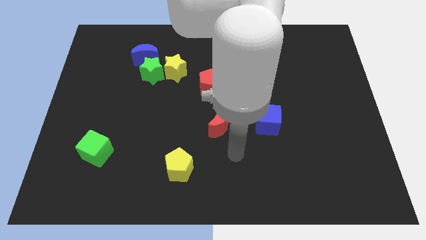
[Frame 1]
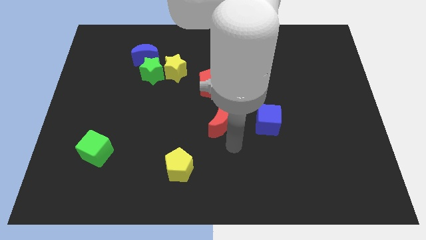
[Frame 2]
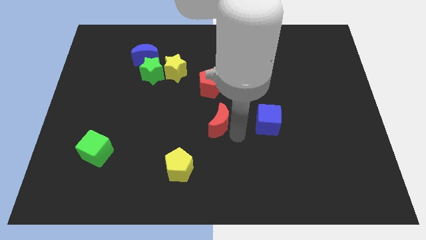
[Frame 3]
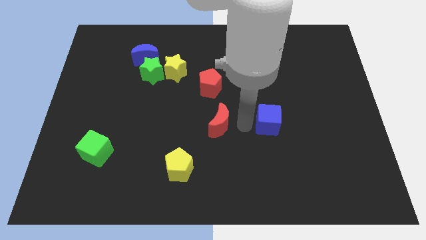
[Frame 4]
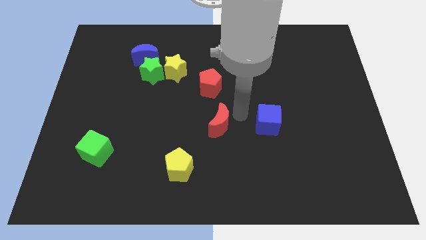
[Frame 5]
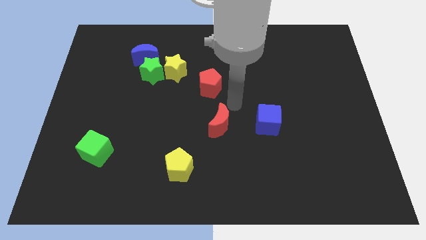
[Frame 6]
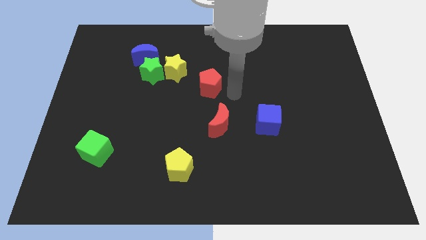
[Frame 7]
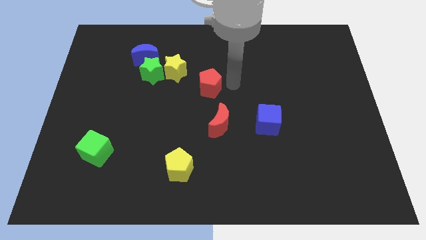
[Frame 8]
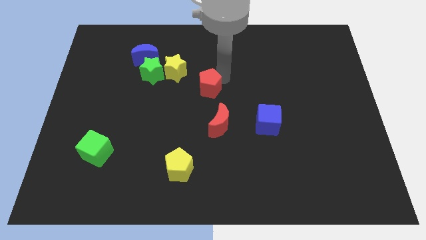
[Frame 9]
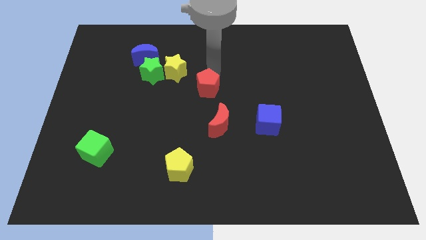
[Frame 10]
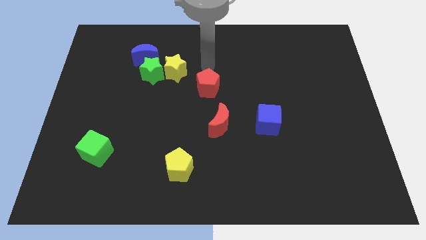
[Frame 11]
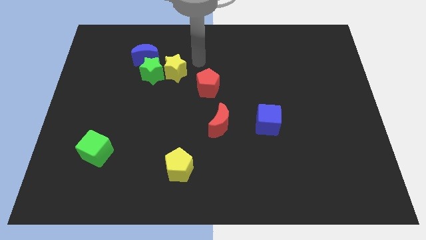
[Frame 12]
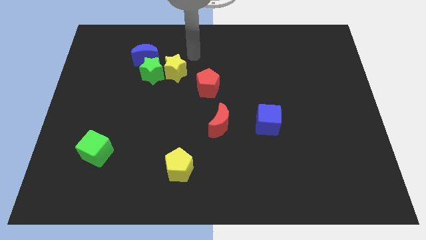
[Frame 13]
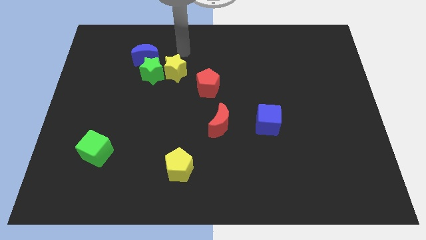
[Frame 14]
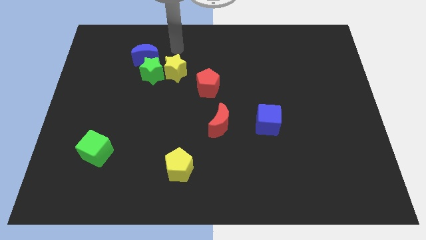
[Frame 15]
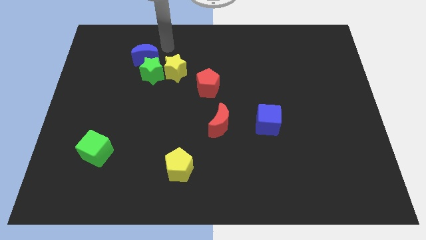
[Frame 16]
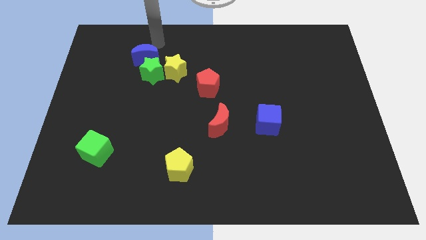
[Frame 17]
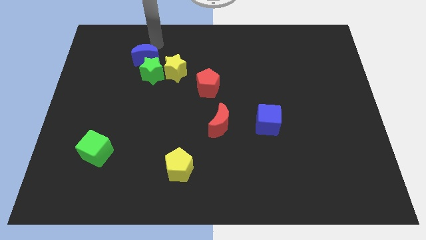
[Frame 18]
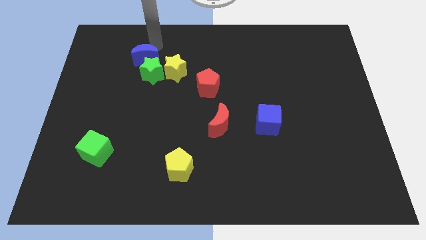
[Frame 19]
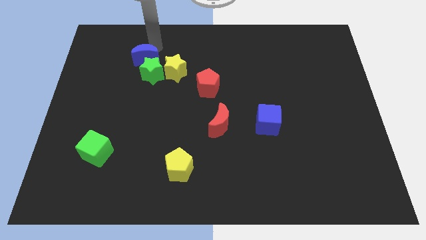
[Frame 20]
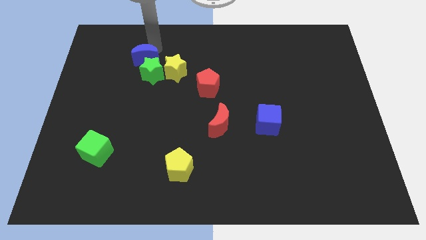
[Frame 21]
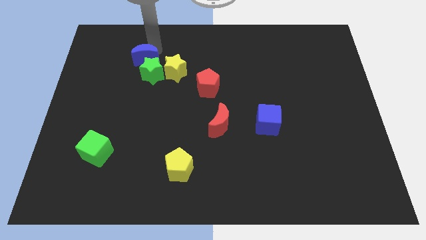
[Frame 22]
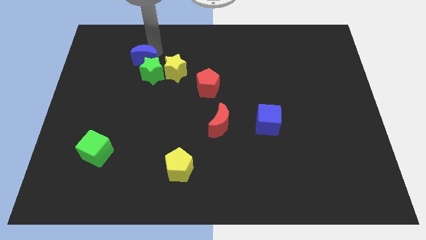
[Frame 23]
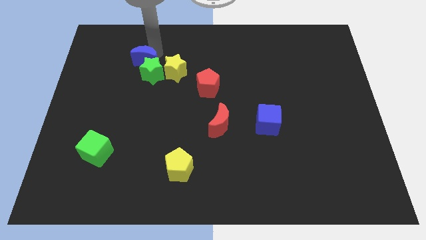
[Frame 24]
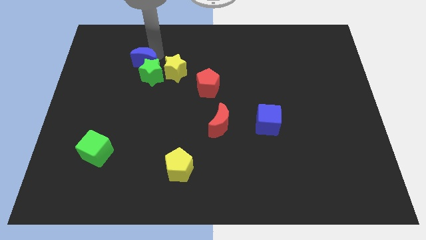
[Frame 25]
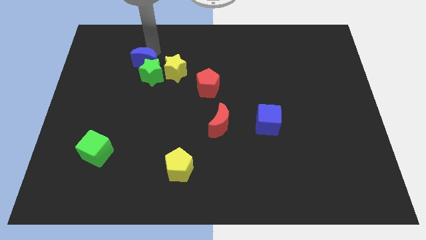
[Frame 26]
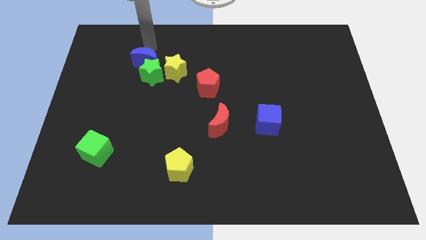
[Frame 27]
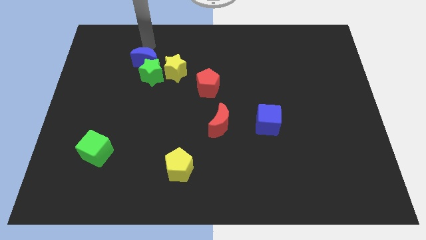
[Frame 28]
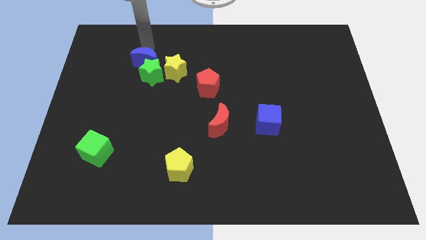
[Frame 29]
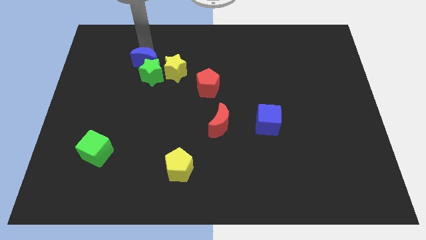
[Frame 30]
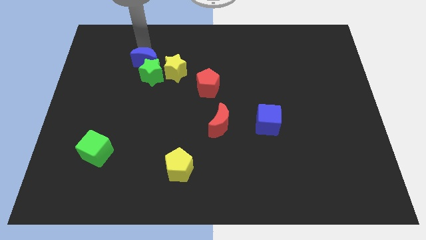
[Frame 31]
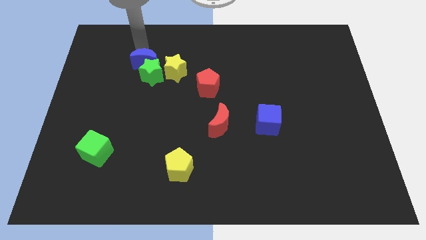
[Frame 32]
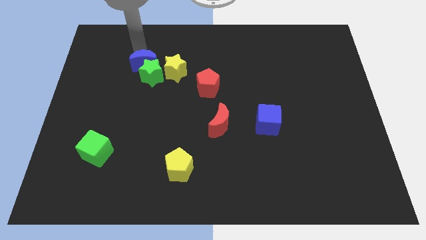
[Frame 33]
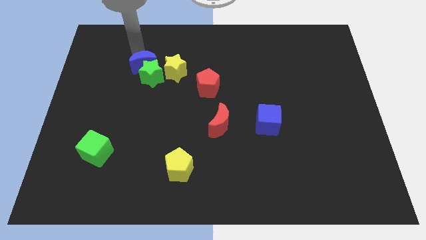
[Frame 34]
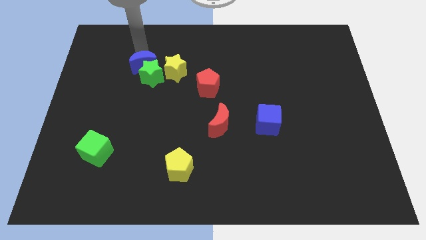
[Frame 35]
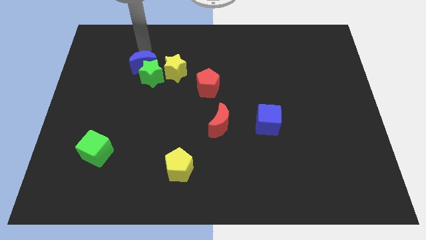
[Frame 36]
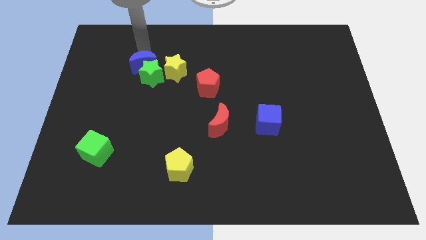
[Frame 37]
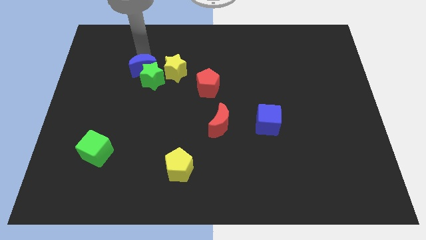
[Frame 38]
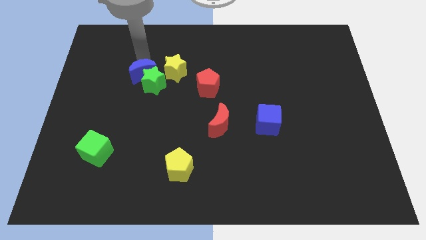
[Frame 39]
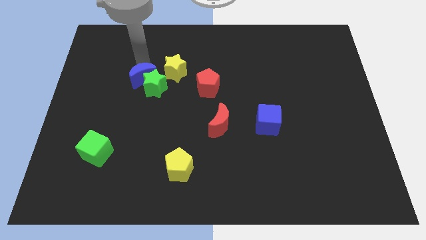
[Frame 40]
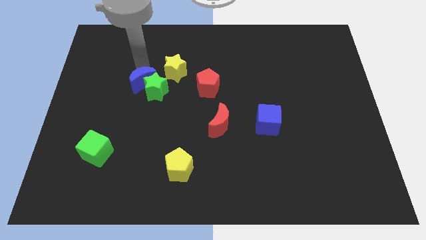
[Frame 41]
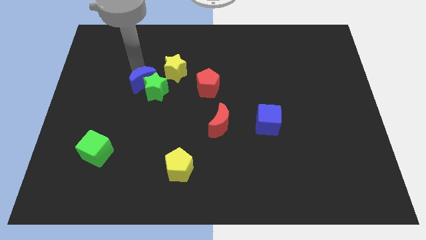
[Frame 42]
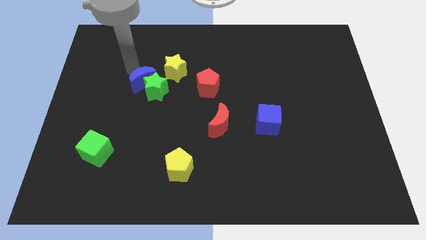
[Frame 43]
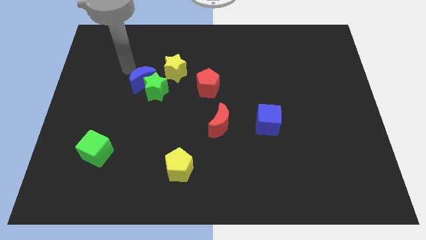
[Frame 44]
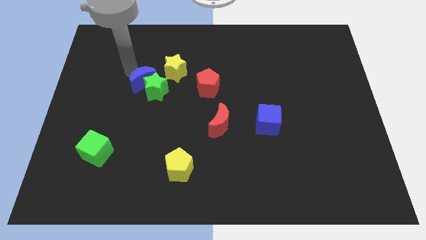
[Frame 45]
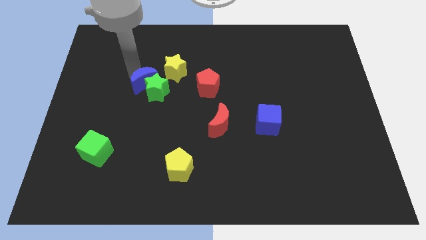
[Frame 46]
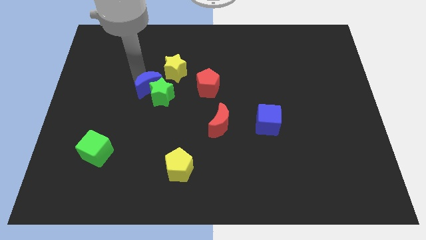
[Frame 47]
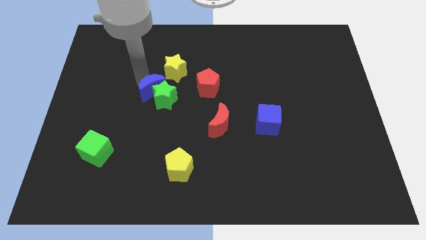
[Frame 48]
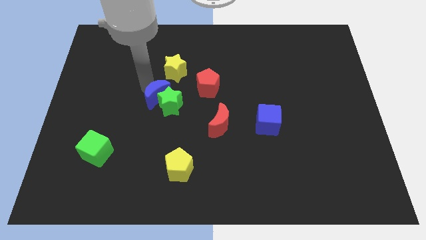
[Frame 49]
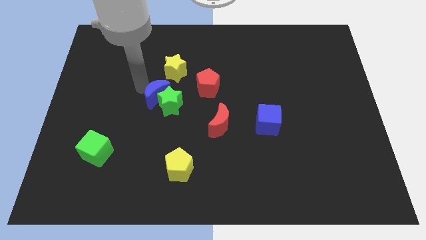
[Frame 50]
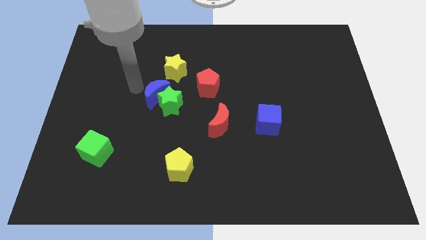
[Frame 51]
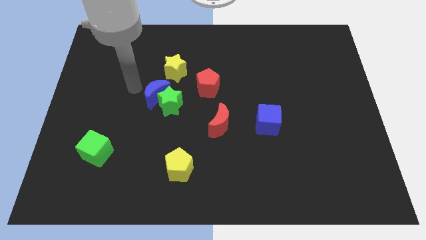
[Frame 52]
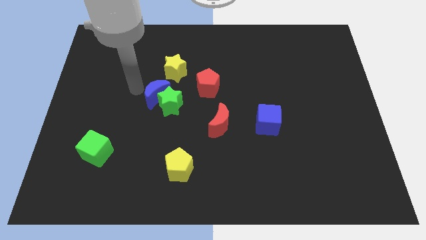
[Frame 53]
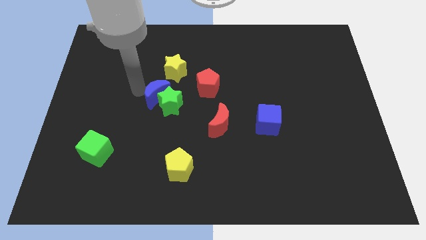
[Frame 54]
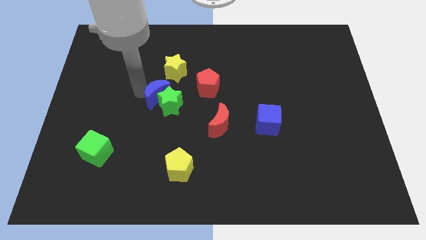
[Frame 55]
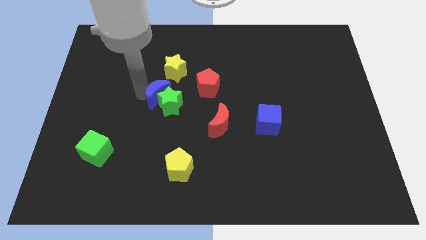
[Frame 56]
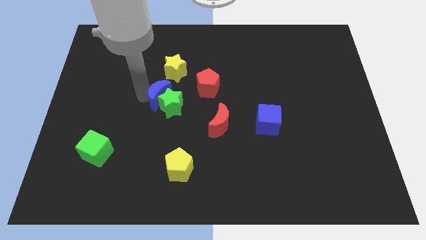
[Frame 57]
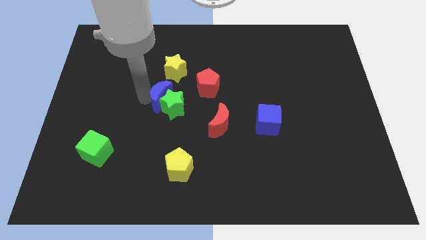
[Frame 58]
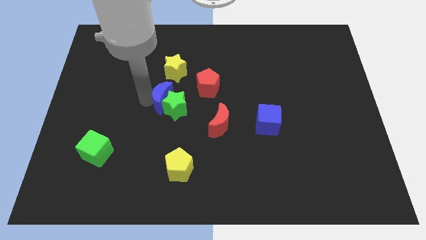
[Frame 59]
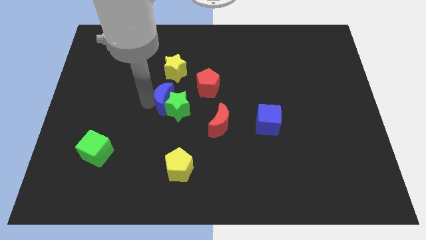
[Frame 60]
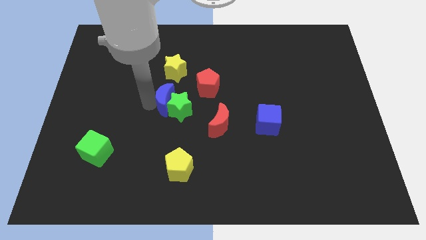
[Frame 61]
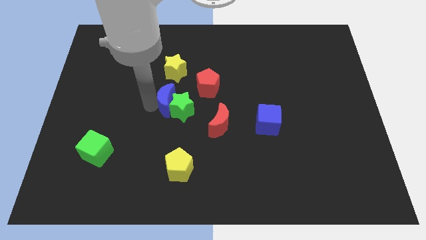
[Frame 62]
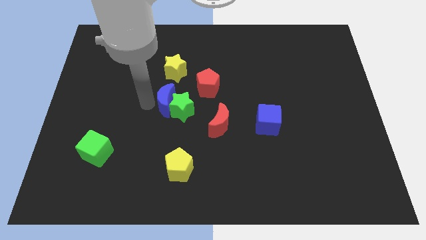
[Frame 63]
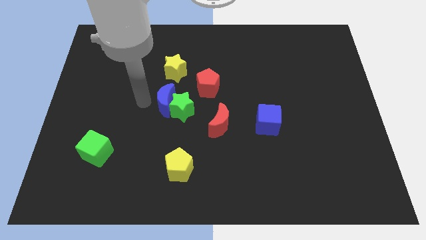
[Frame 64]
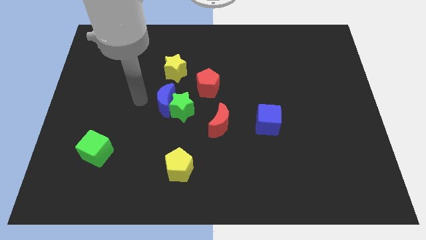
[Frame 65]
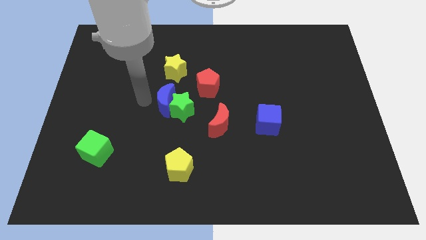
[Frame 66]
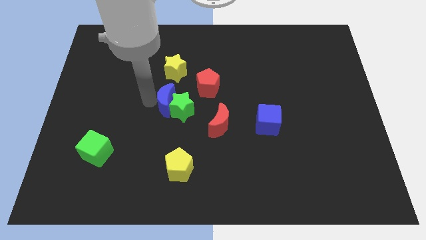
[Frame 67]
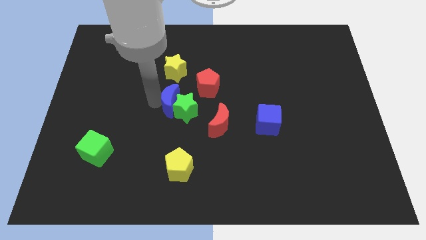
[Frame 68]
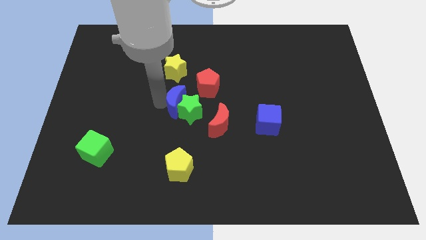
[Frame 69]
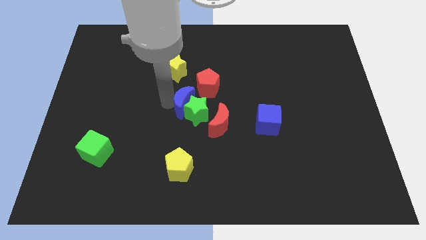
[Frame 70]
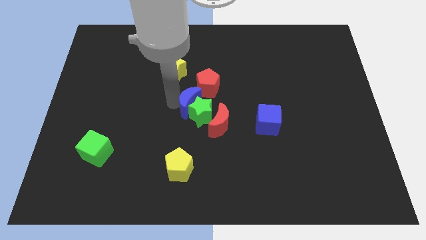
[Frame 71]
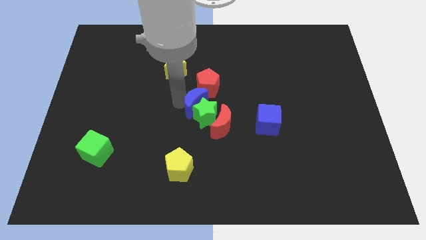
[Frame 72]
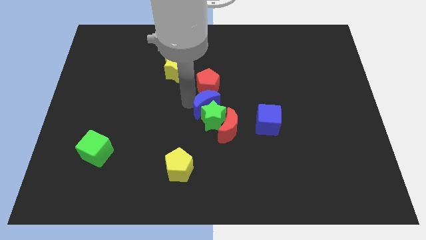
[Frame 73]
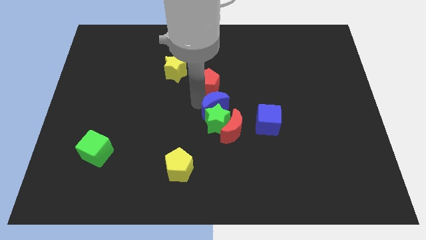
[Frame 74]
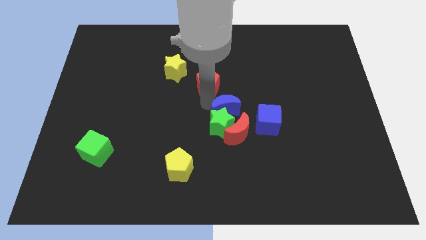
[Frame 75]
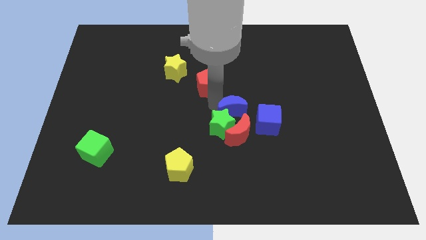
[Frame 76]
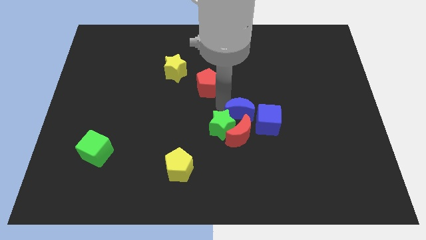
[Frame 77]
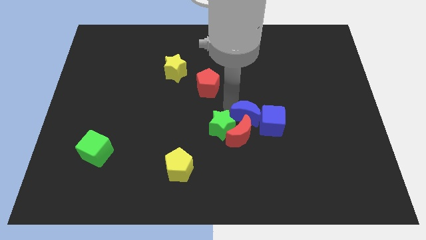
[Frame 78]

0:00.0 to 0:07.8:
push the blue moon close to the red moon

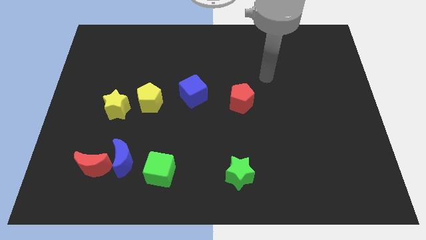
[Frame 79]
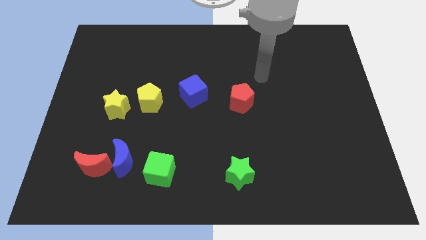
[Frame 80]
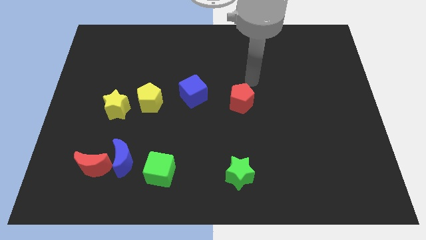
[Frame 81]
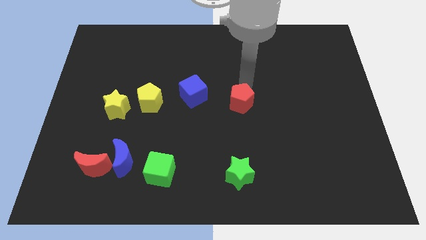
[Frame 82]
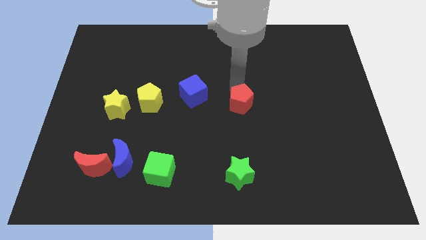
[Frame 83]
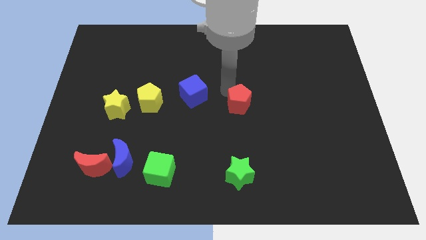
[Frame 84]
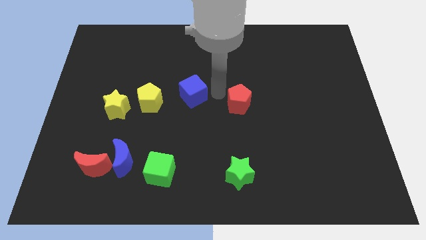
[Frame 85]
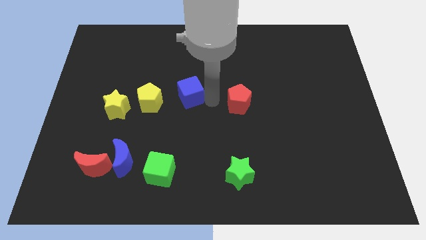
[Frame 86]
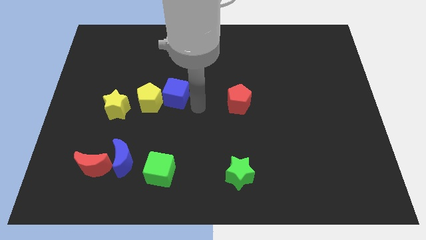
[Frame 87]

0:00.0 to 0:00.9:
put the yellow pentagon close to the blue cube
